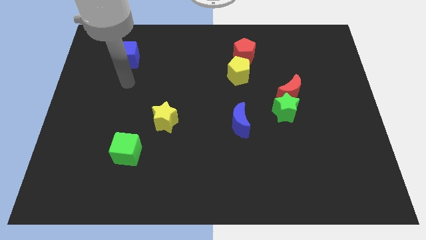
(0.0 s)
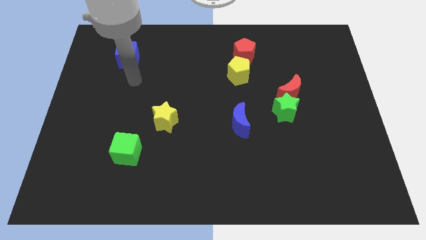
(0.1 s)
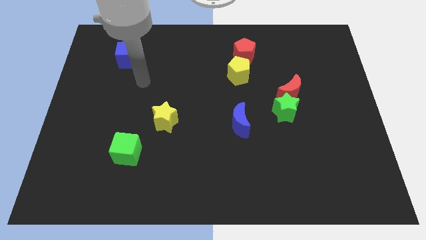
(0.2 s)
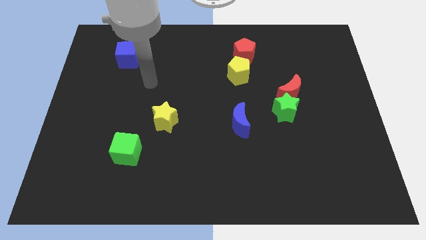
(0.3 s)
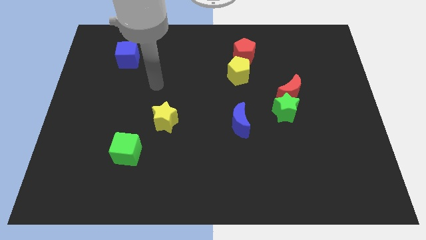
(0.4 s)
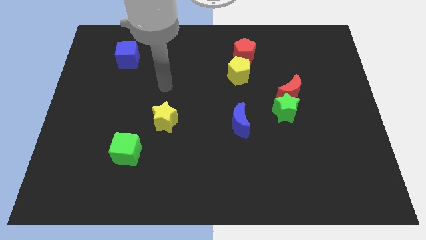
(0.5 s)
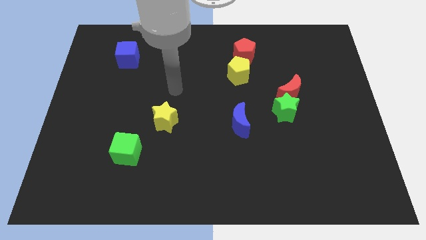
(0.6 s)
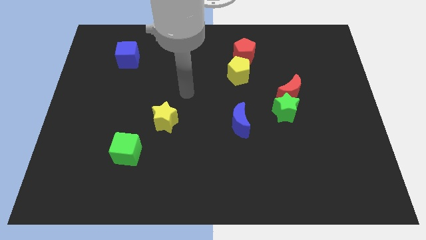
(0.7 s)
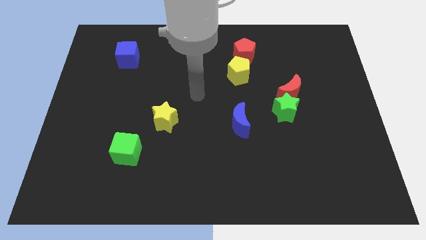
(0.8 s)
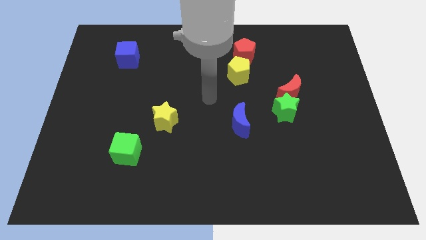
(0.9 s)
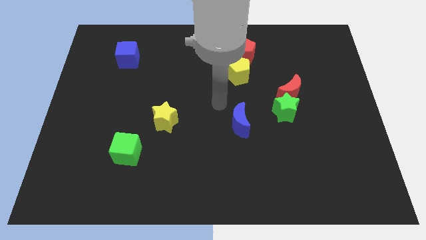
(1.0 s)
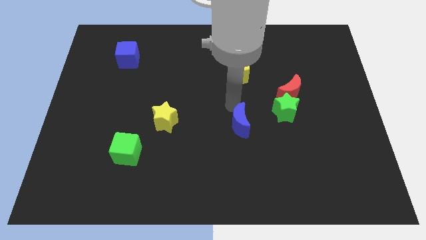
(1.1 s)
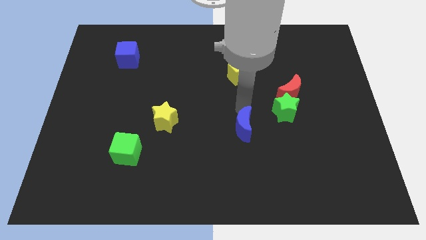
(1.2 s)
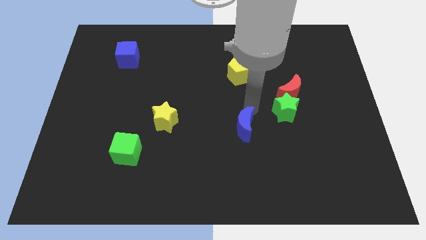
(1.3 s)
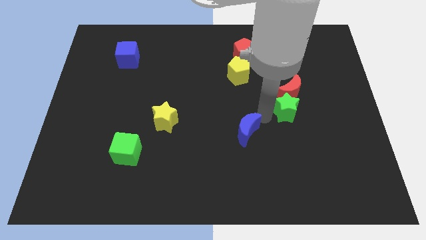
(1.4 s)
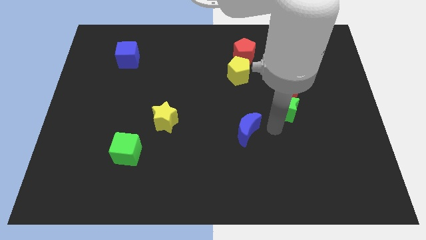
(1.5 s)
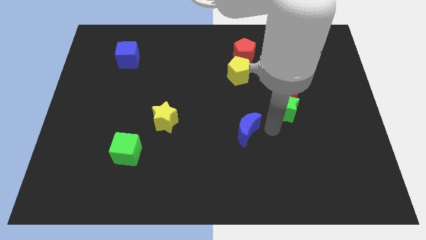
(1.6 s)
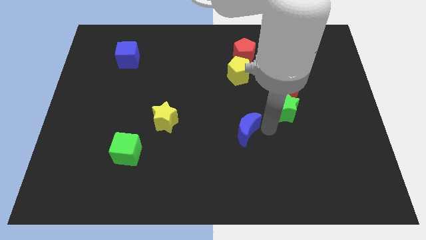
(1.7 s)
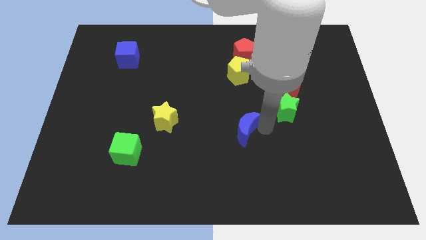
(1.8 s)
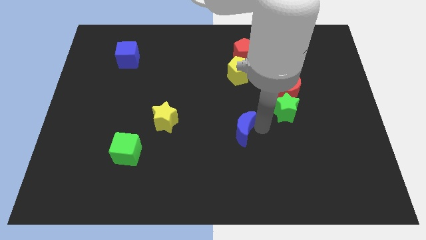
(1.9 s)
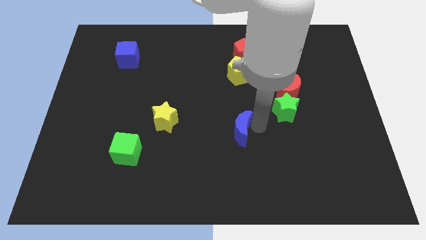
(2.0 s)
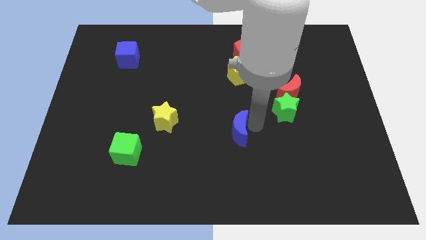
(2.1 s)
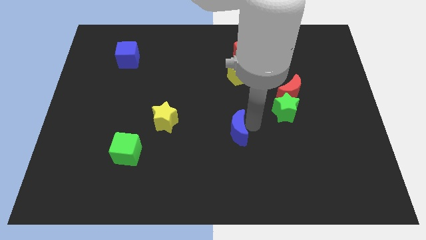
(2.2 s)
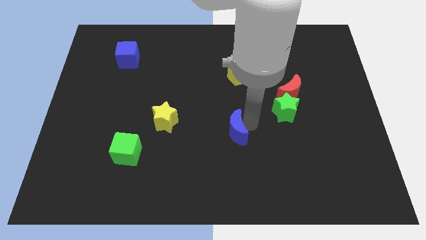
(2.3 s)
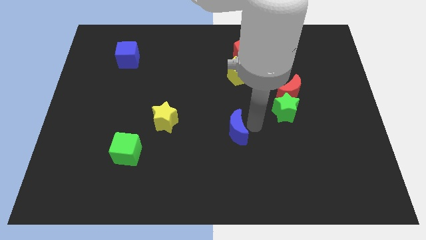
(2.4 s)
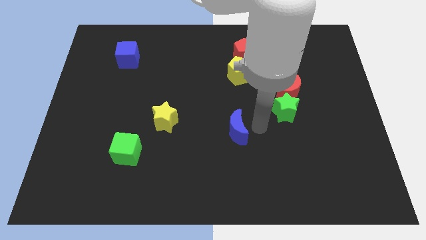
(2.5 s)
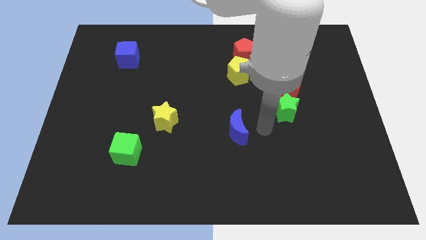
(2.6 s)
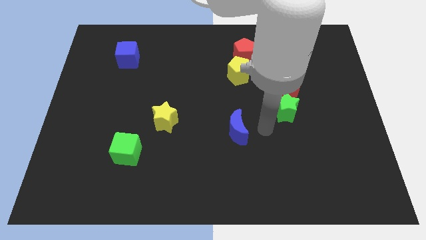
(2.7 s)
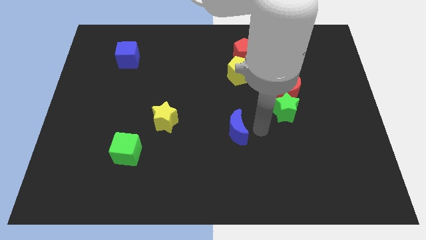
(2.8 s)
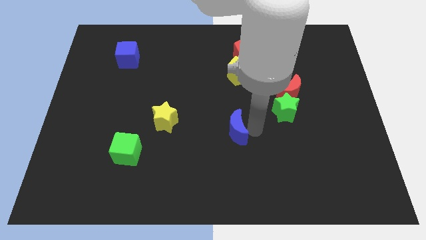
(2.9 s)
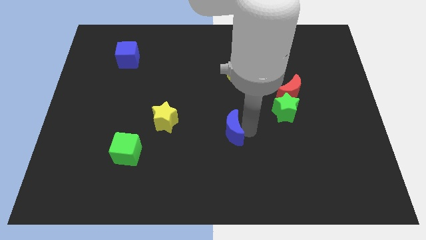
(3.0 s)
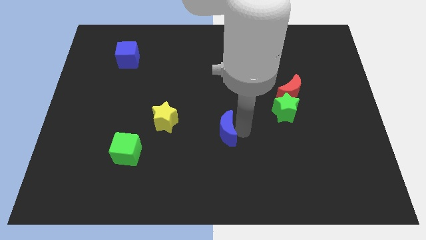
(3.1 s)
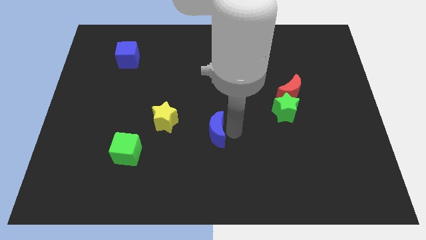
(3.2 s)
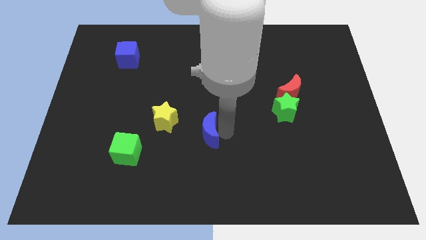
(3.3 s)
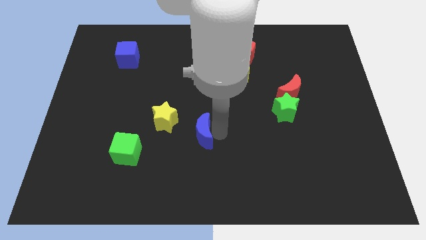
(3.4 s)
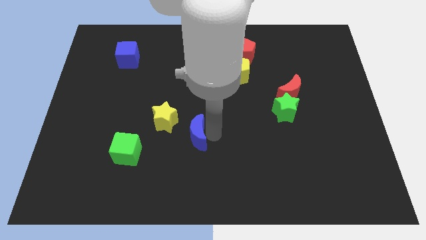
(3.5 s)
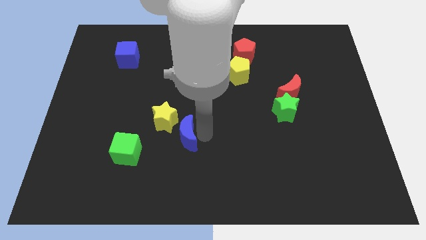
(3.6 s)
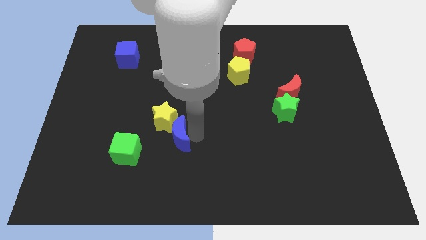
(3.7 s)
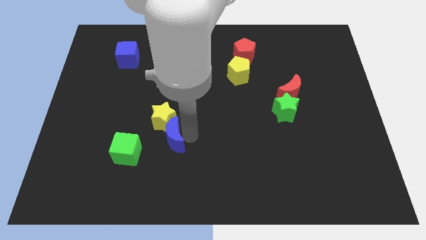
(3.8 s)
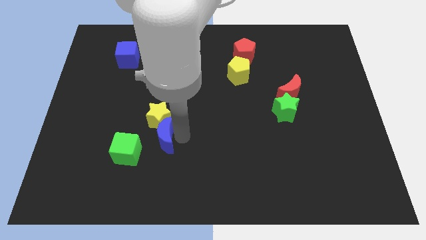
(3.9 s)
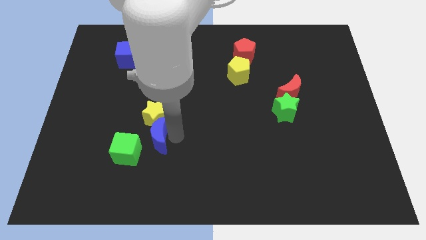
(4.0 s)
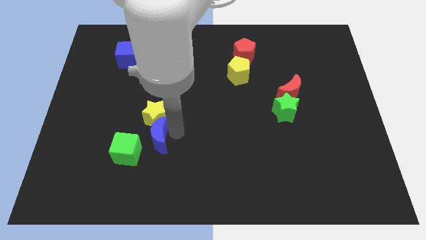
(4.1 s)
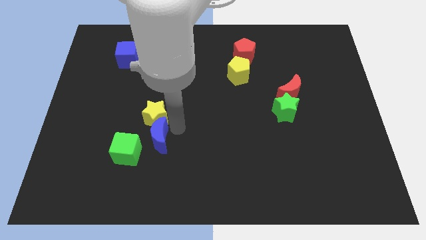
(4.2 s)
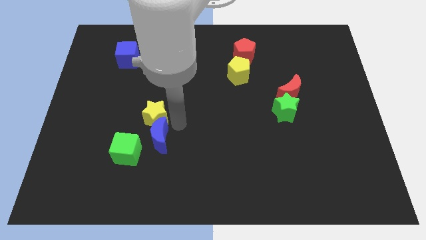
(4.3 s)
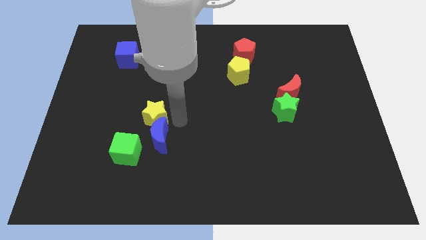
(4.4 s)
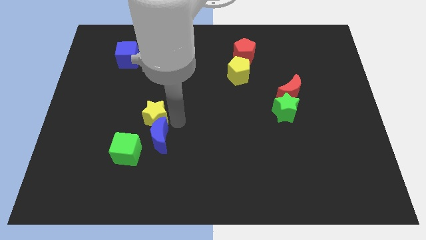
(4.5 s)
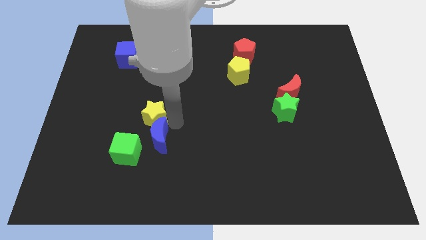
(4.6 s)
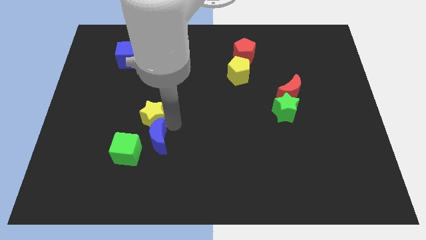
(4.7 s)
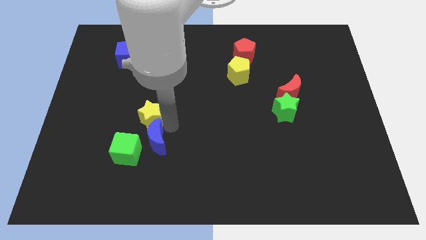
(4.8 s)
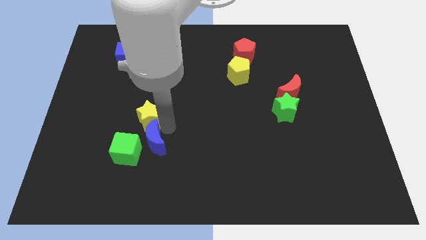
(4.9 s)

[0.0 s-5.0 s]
slide the blue moon towards the green cube

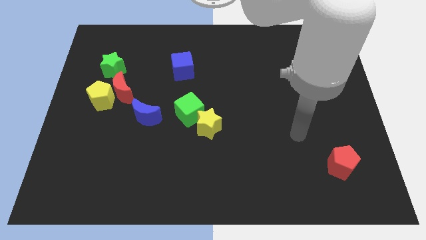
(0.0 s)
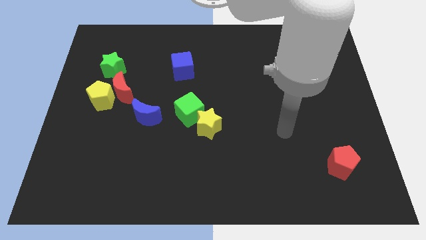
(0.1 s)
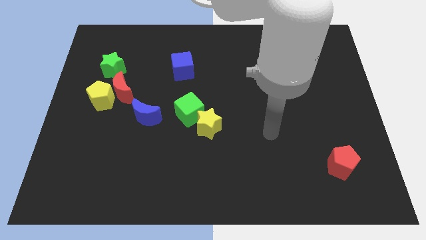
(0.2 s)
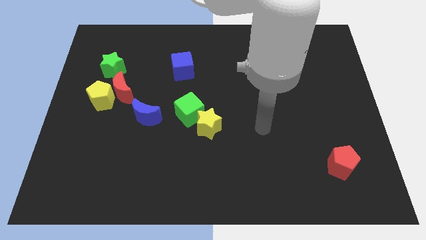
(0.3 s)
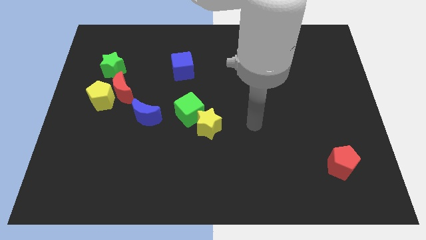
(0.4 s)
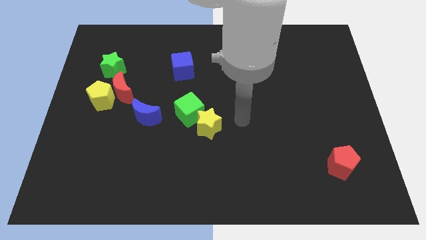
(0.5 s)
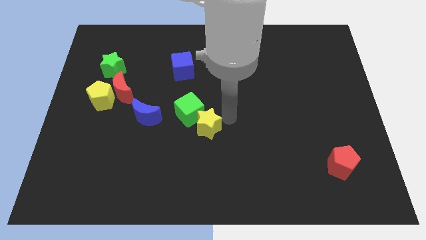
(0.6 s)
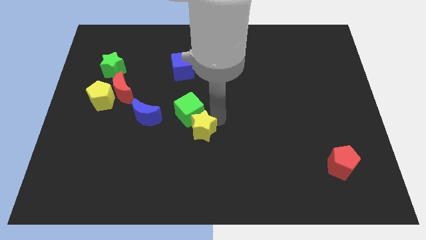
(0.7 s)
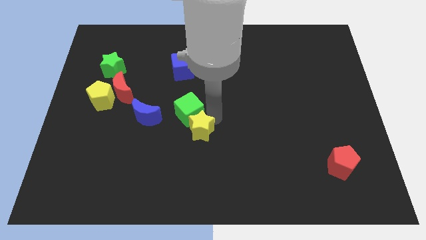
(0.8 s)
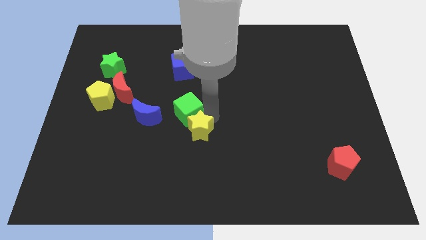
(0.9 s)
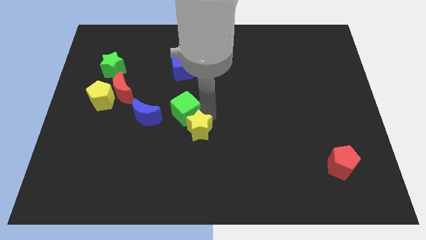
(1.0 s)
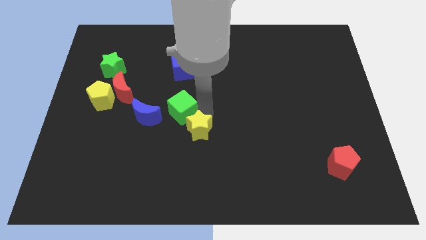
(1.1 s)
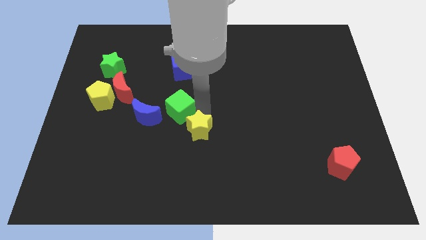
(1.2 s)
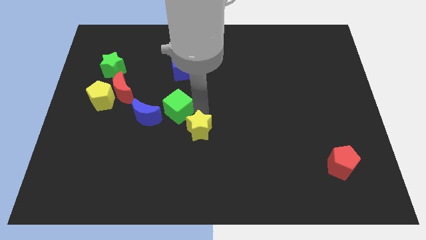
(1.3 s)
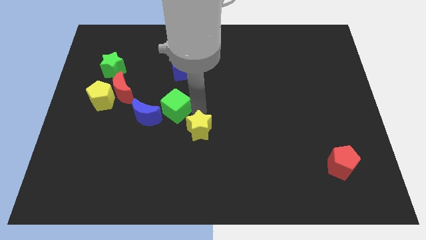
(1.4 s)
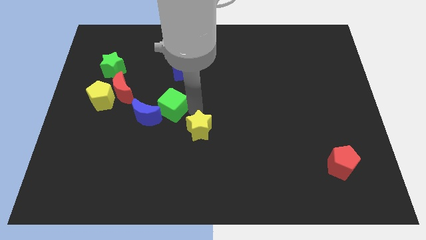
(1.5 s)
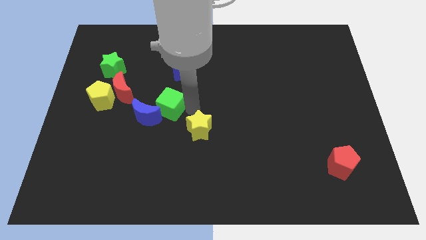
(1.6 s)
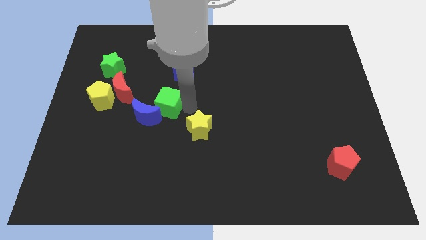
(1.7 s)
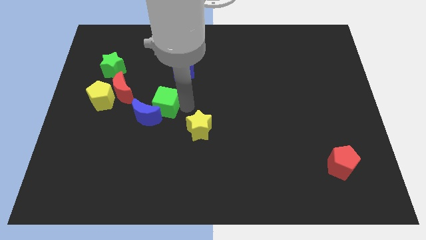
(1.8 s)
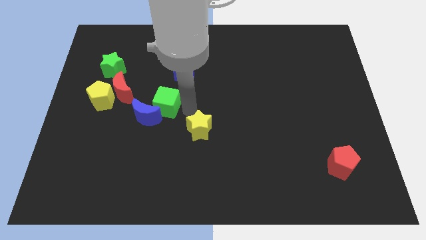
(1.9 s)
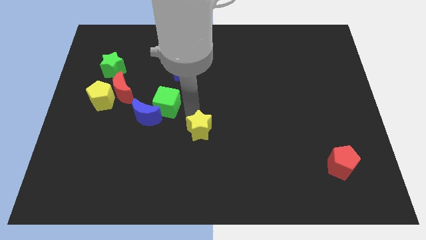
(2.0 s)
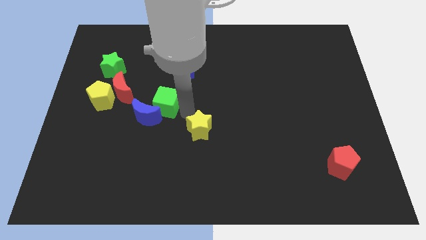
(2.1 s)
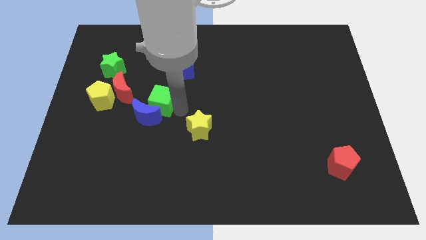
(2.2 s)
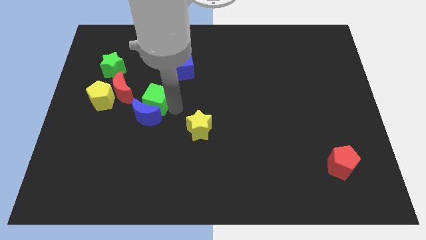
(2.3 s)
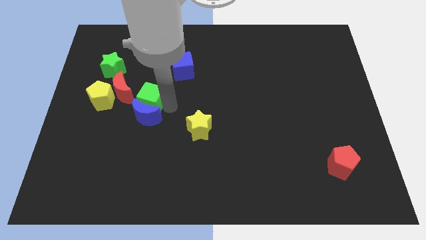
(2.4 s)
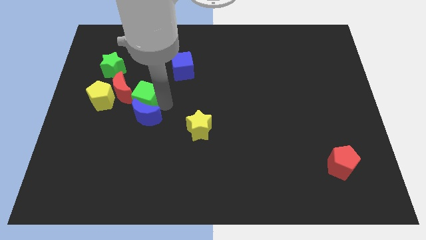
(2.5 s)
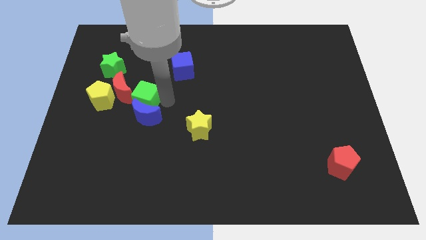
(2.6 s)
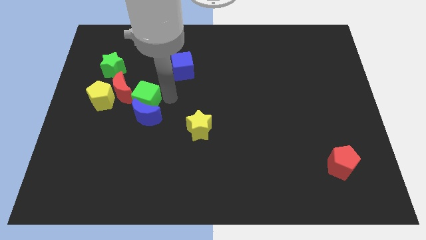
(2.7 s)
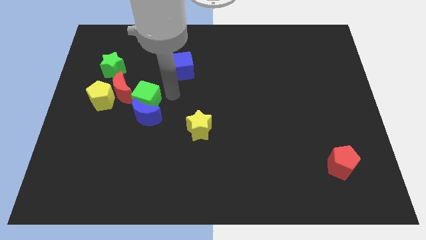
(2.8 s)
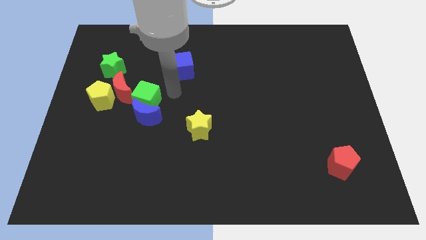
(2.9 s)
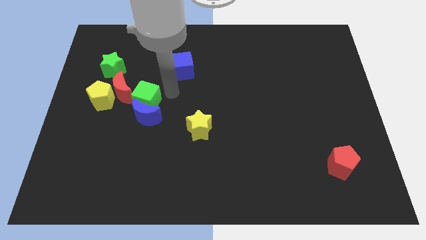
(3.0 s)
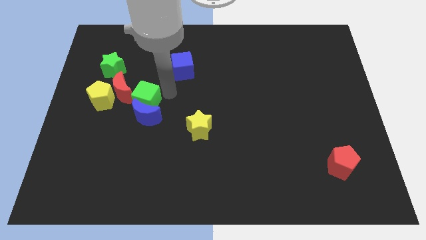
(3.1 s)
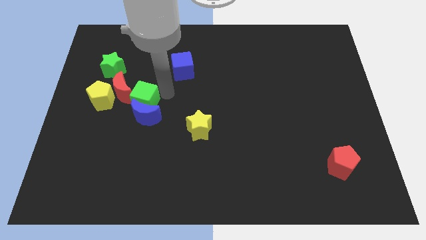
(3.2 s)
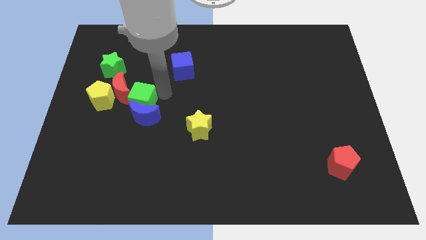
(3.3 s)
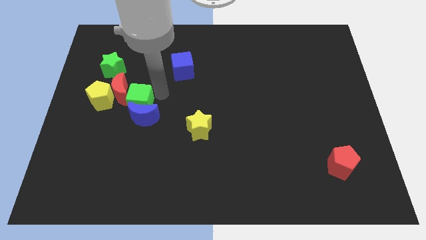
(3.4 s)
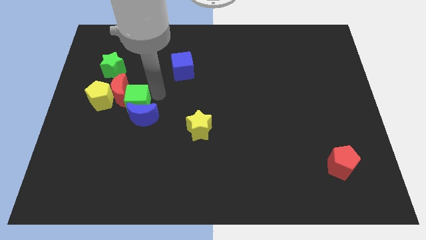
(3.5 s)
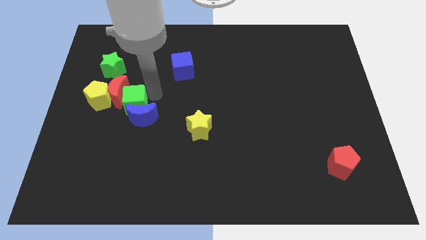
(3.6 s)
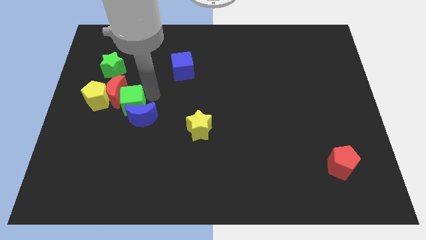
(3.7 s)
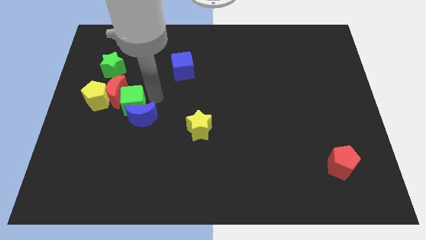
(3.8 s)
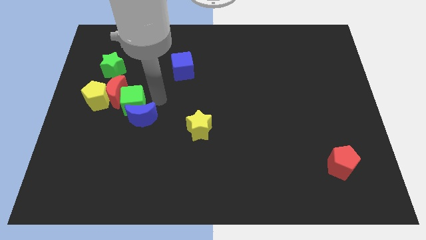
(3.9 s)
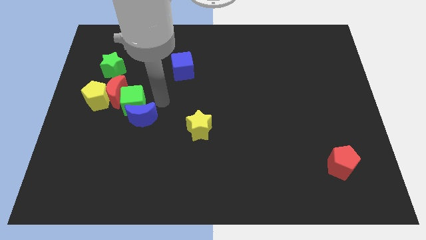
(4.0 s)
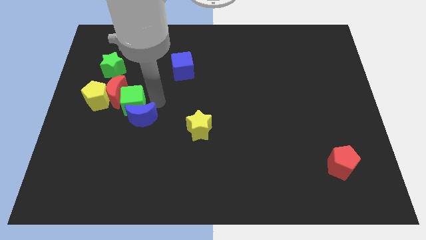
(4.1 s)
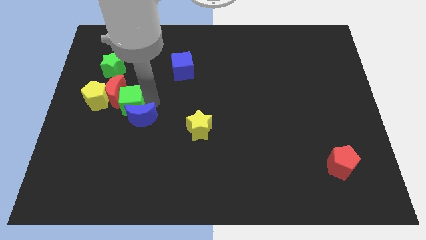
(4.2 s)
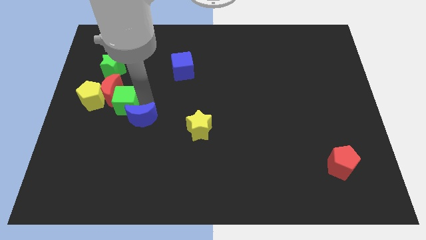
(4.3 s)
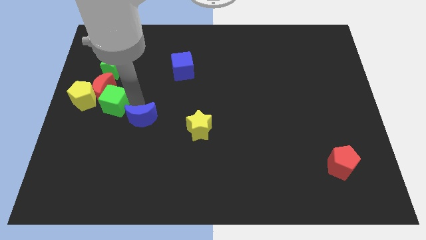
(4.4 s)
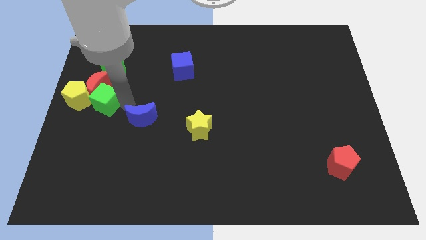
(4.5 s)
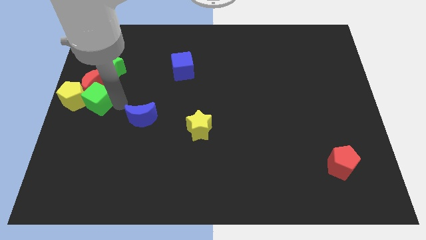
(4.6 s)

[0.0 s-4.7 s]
push the green cube close to the yellow pentagon
